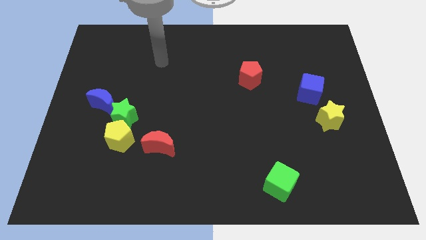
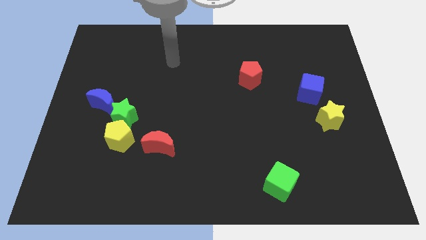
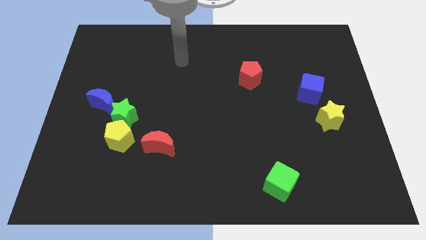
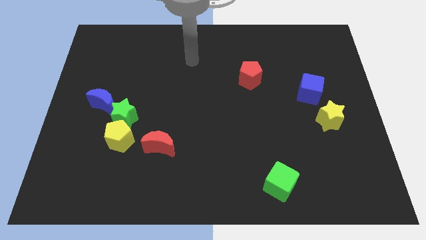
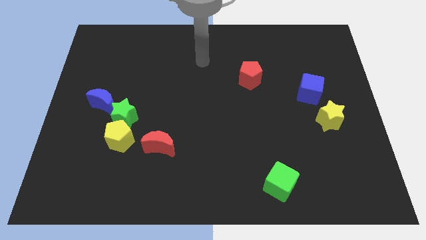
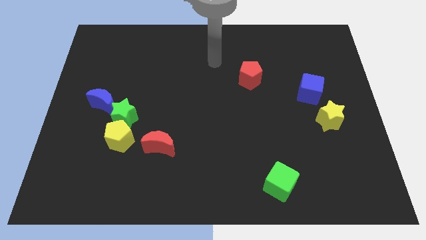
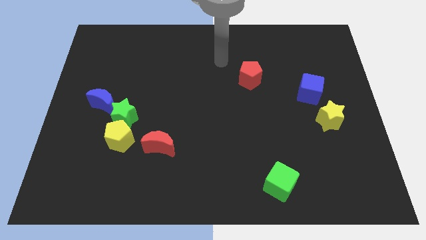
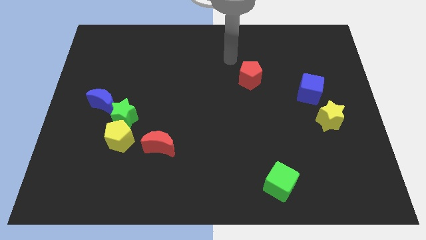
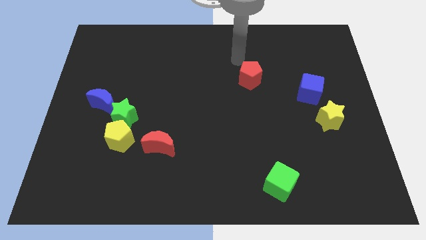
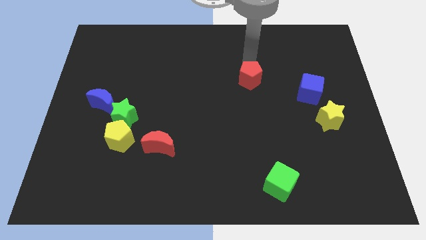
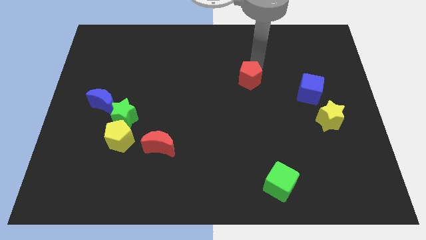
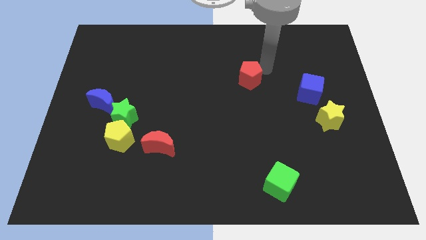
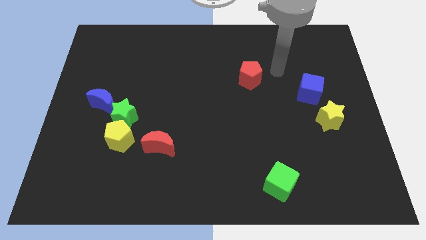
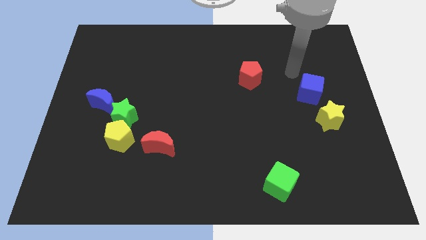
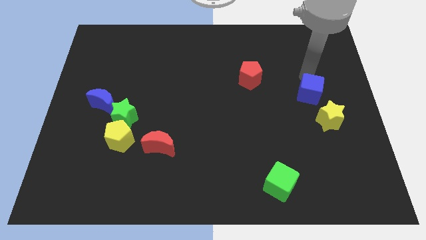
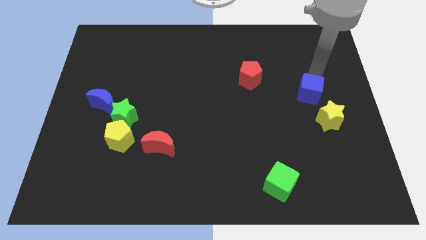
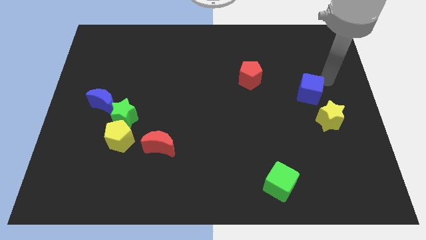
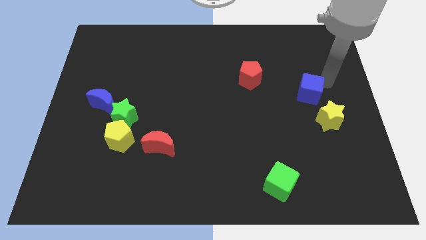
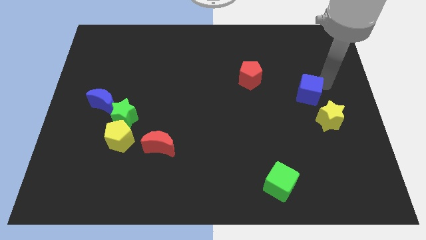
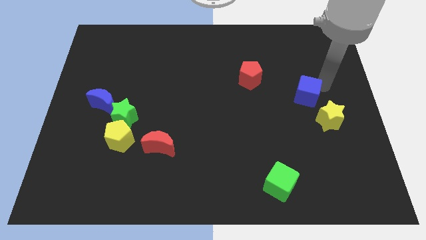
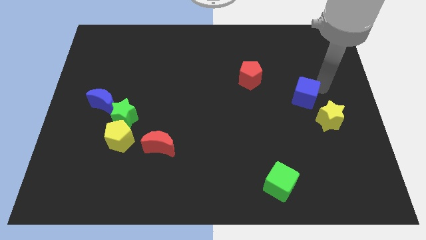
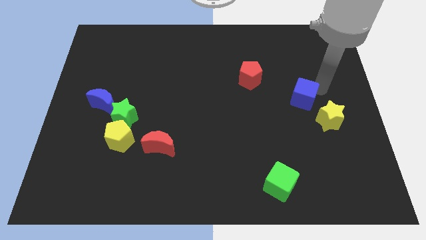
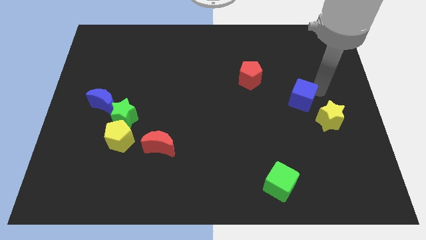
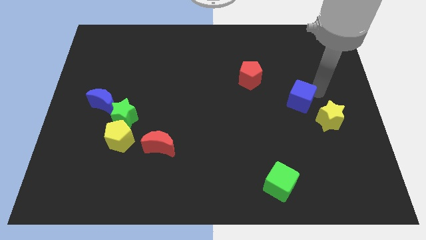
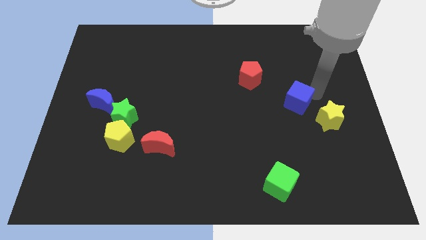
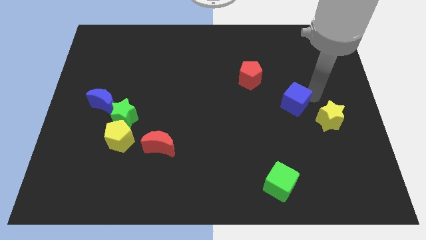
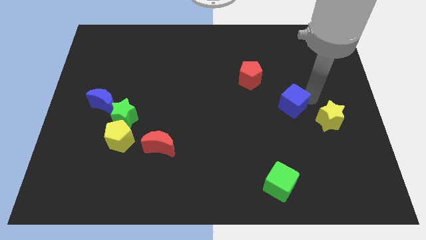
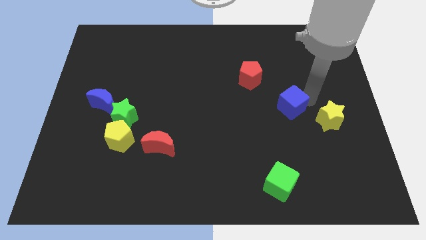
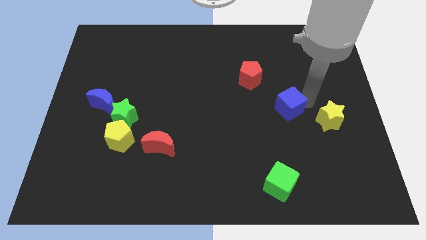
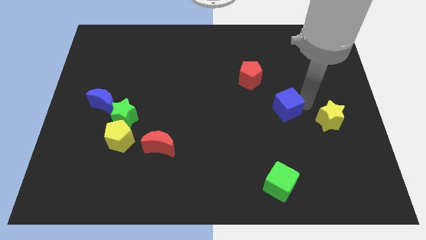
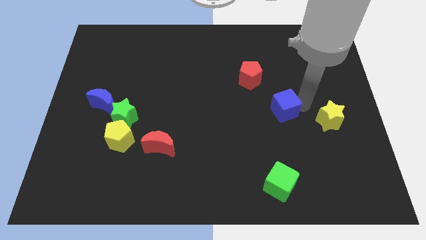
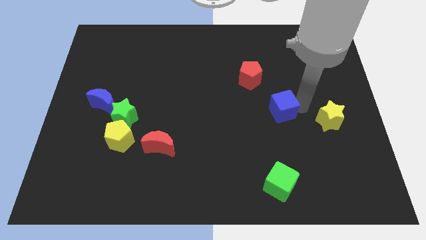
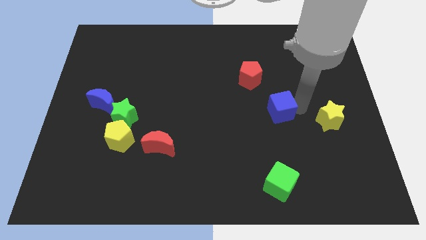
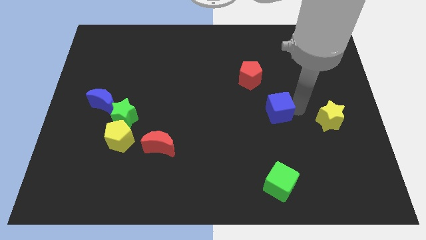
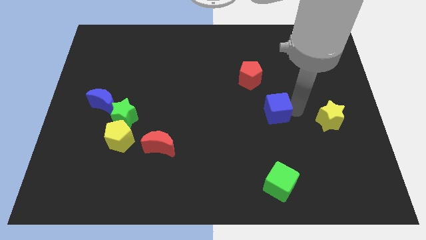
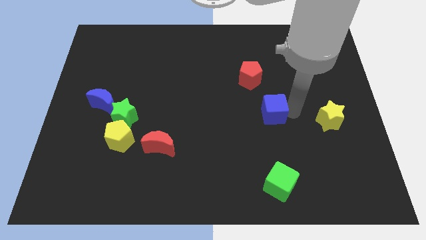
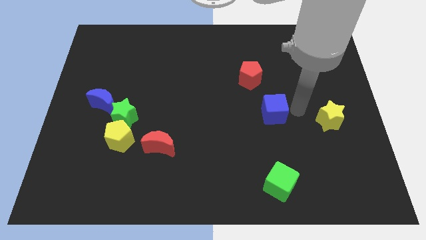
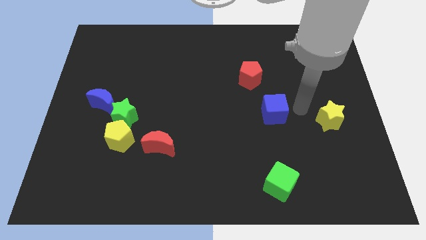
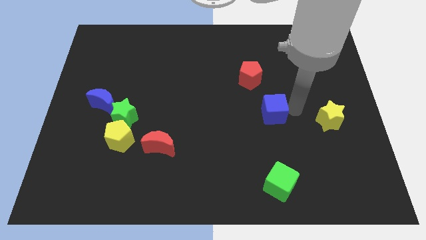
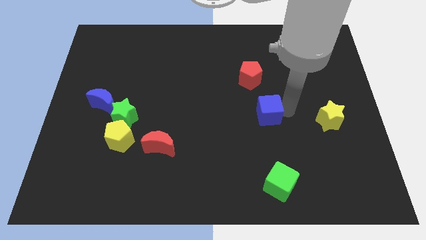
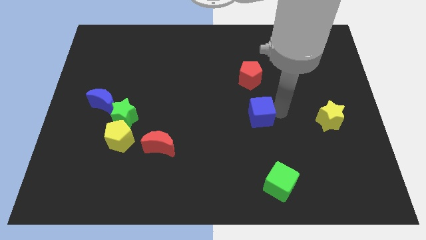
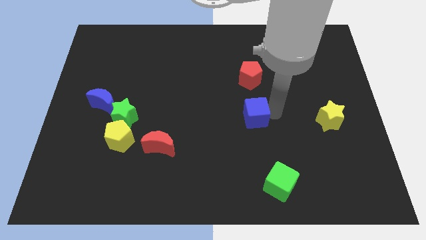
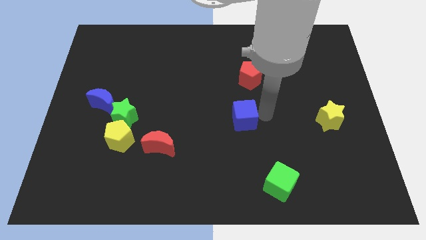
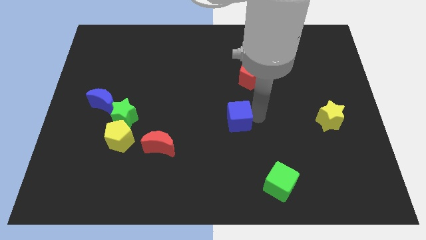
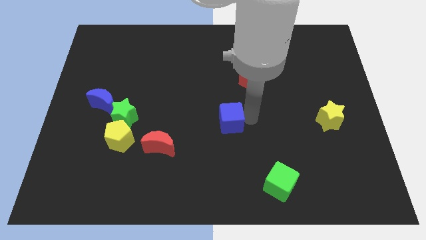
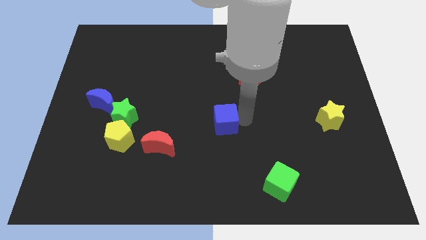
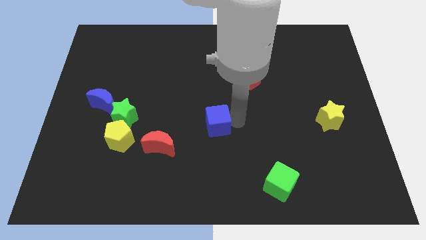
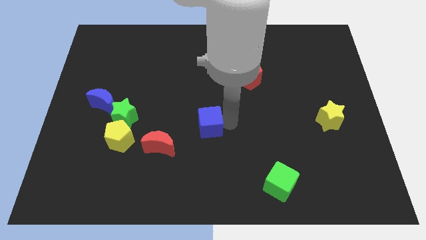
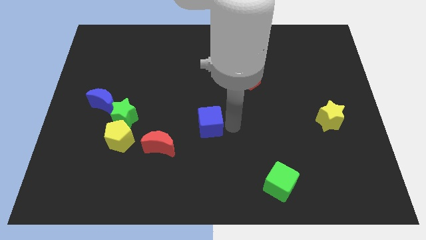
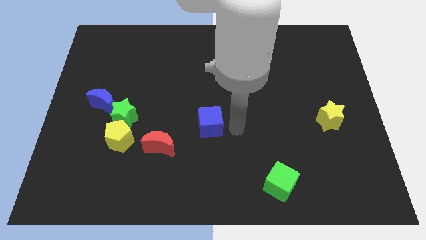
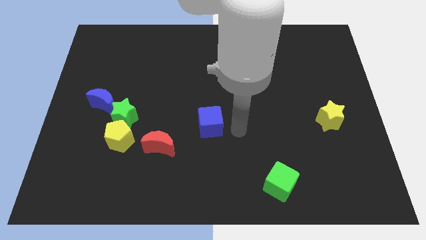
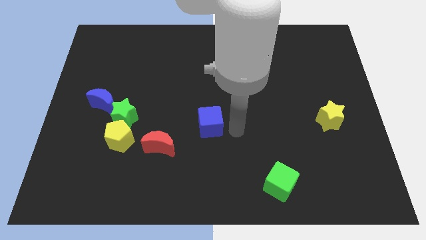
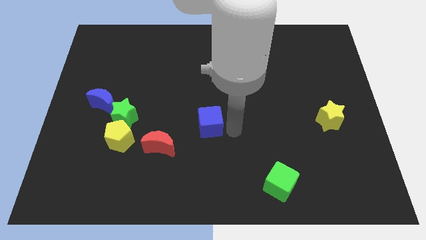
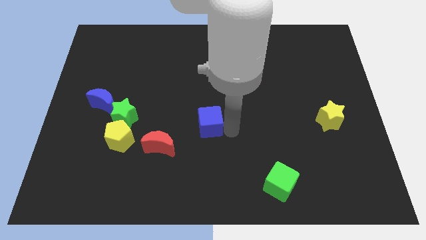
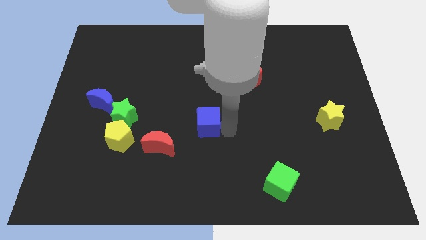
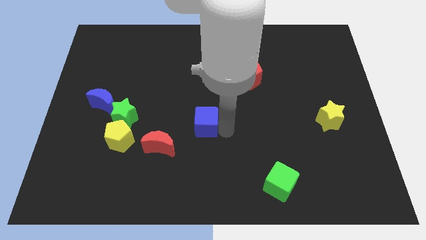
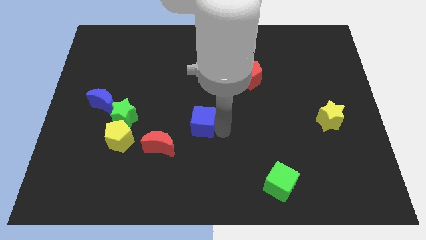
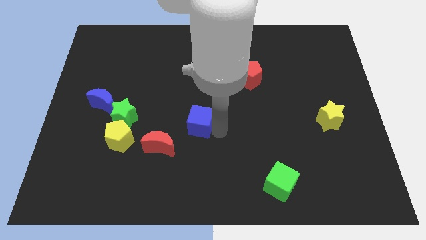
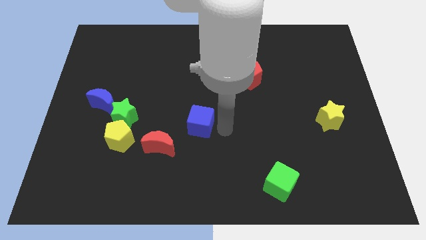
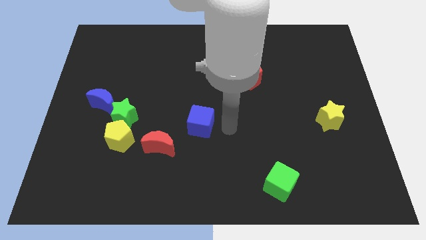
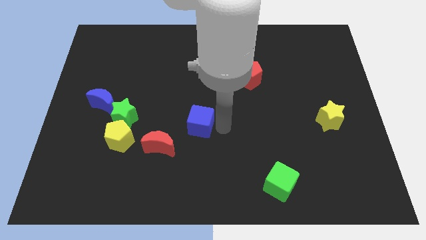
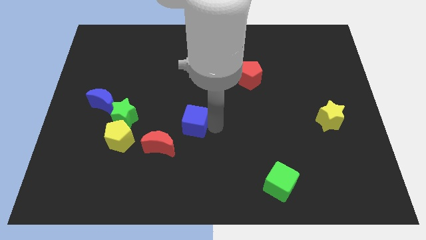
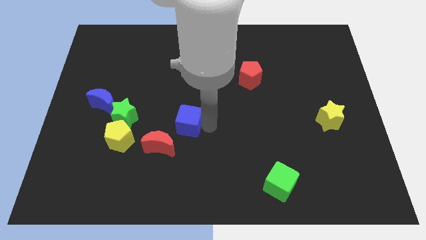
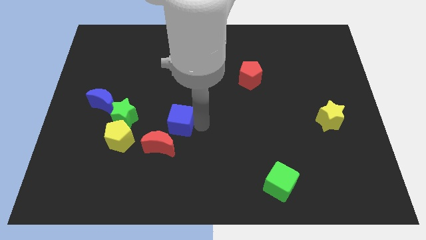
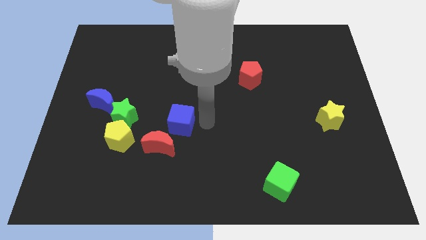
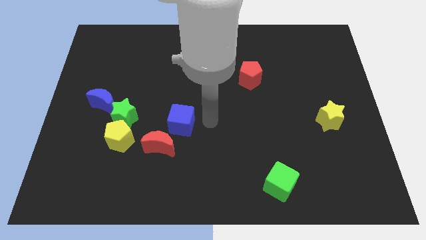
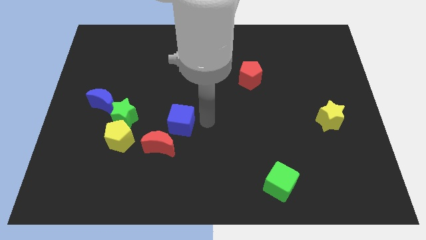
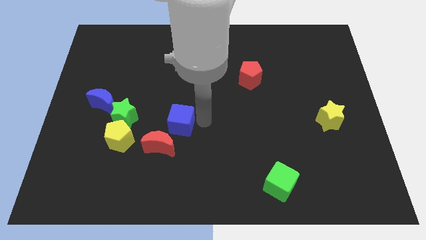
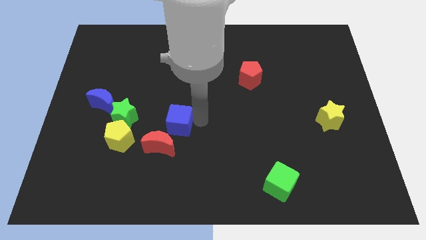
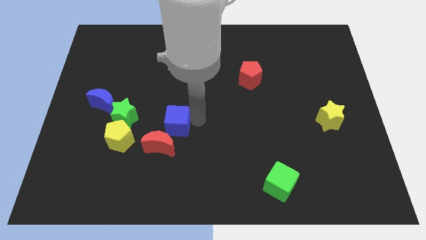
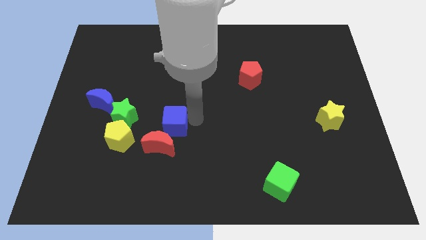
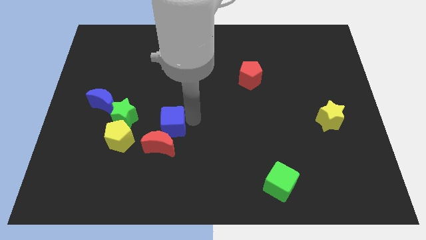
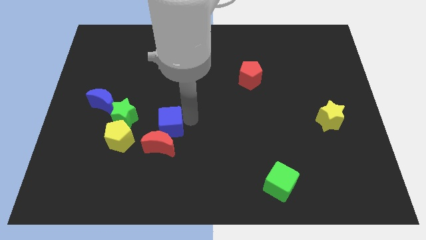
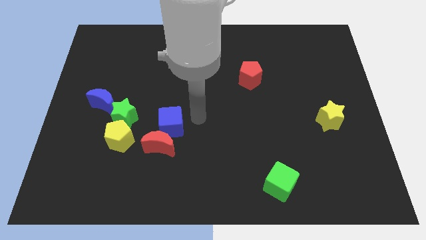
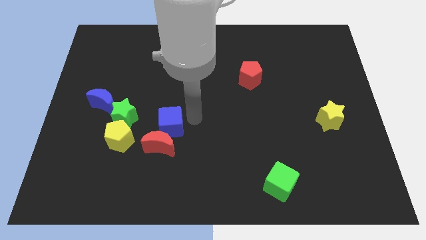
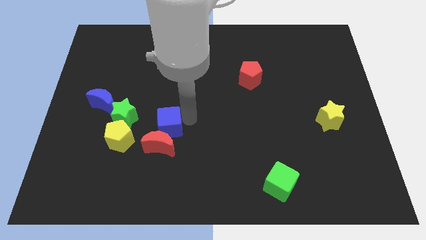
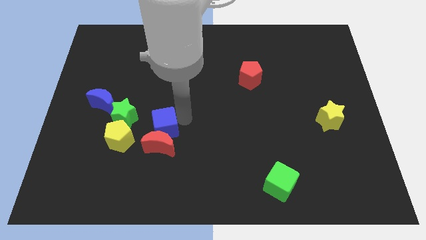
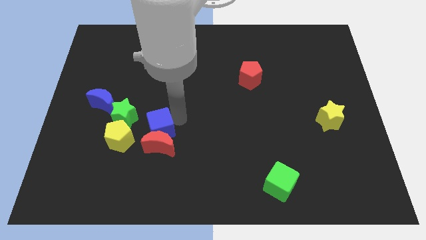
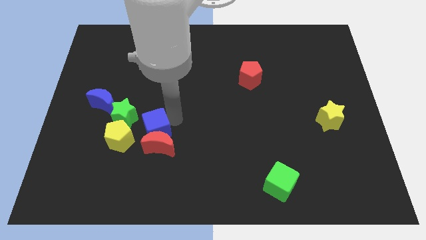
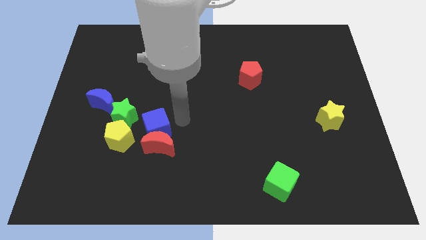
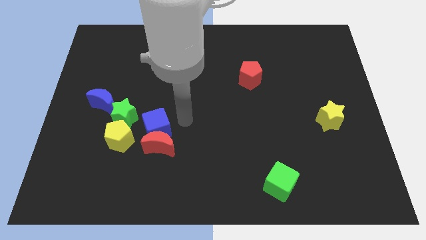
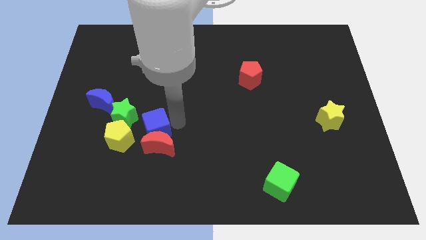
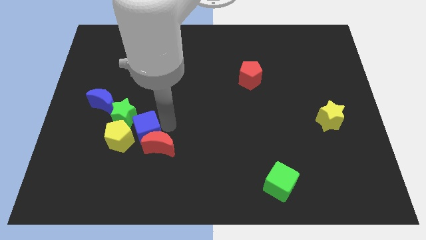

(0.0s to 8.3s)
slide the blue cube next to the yellow pentagon
